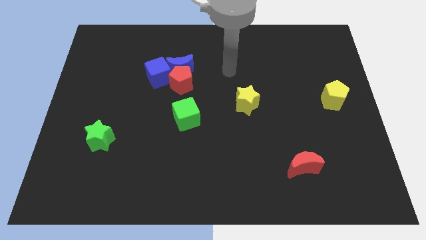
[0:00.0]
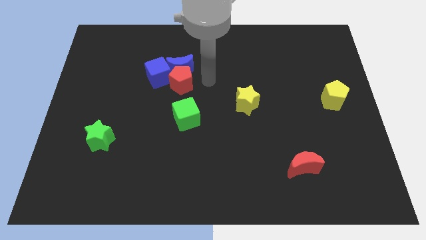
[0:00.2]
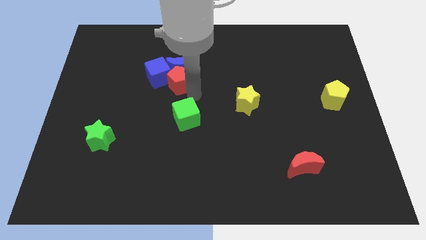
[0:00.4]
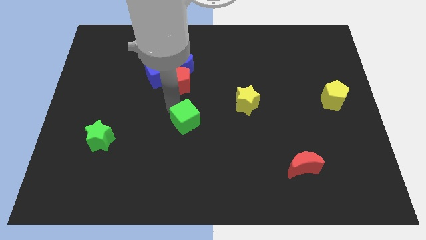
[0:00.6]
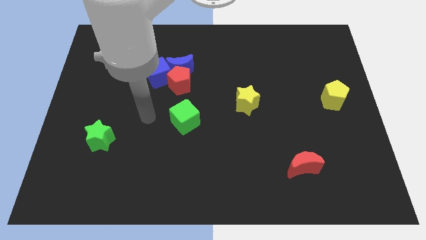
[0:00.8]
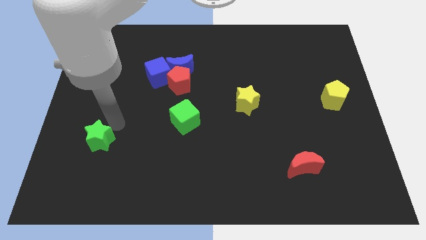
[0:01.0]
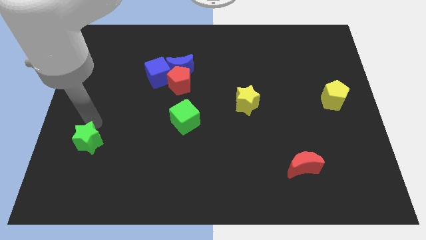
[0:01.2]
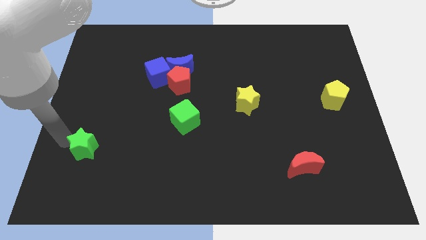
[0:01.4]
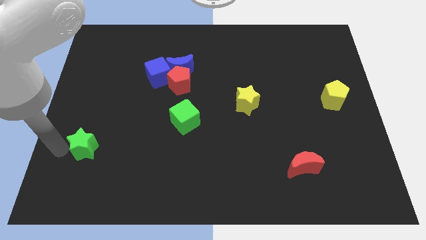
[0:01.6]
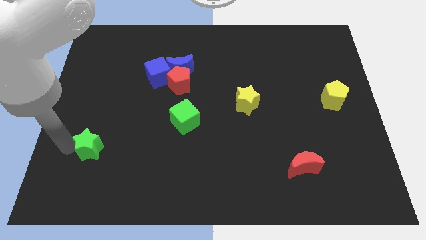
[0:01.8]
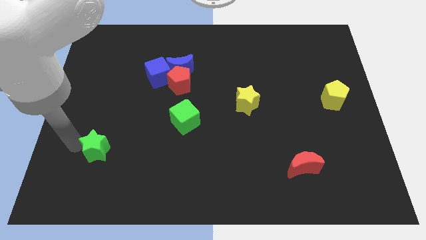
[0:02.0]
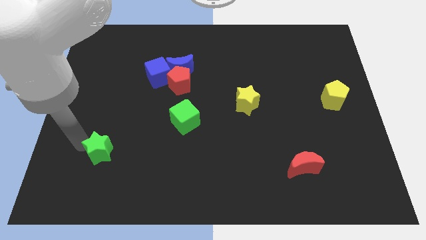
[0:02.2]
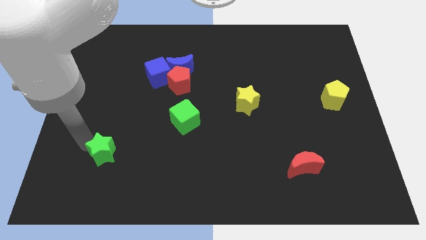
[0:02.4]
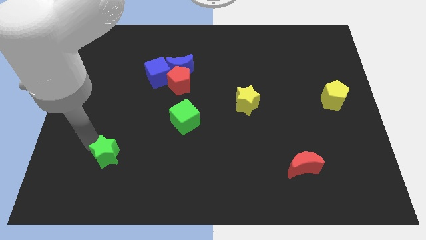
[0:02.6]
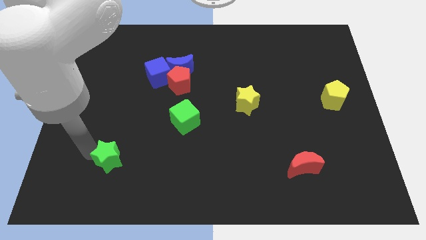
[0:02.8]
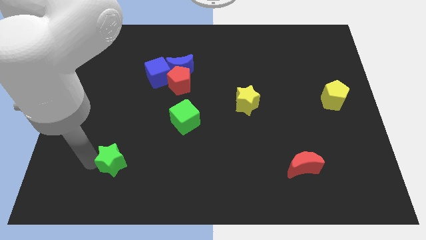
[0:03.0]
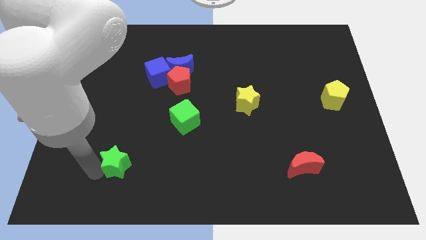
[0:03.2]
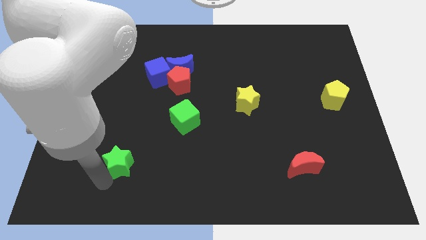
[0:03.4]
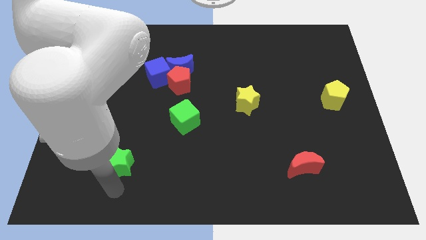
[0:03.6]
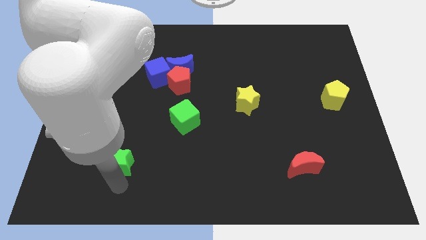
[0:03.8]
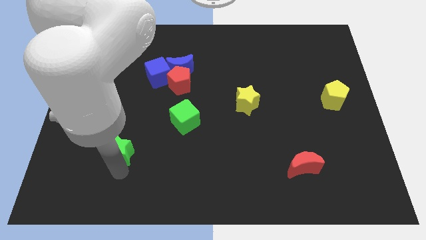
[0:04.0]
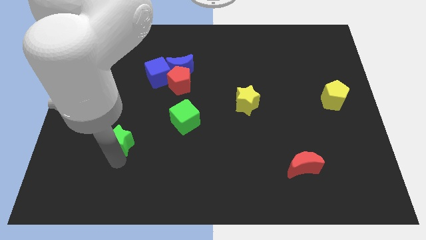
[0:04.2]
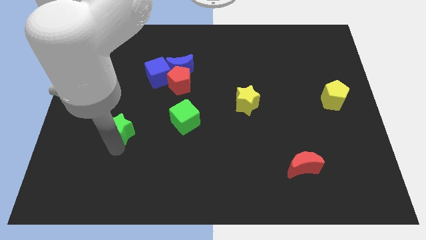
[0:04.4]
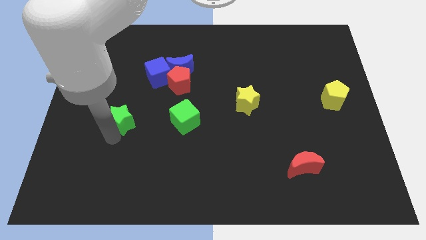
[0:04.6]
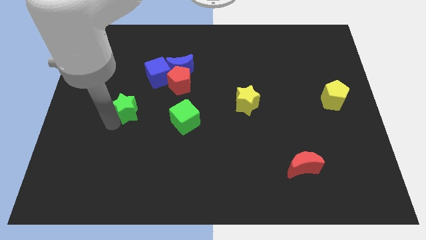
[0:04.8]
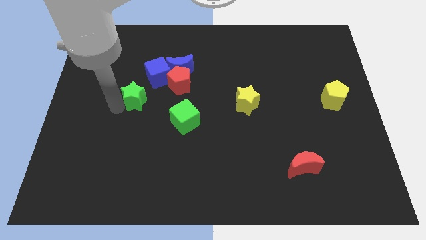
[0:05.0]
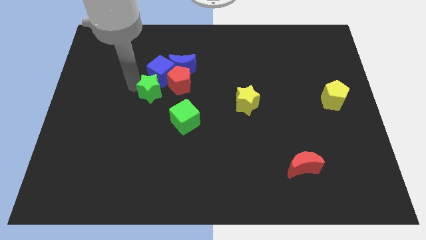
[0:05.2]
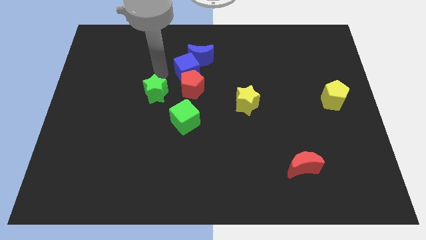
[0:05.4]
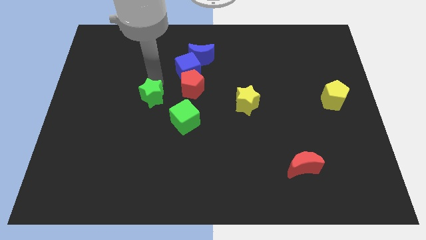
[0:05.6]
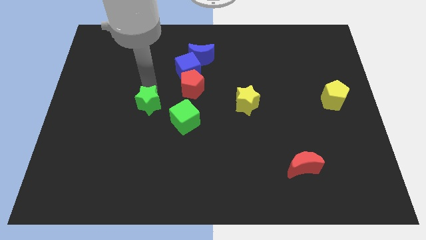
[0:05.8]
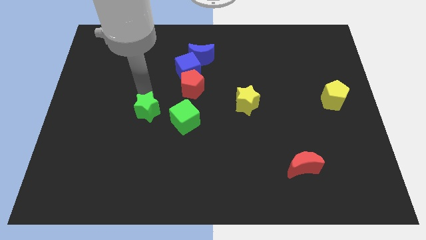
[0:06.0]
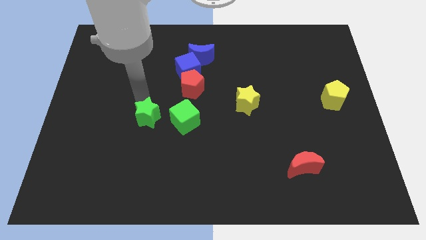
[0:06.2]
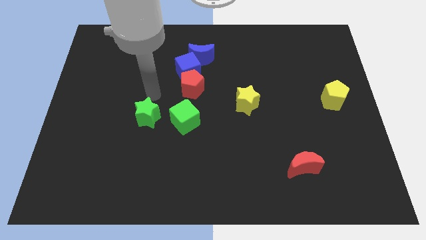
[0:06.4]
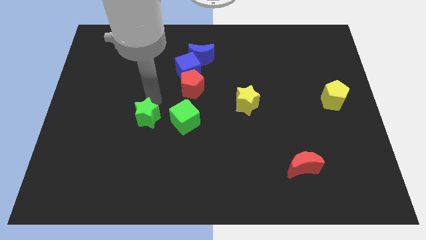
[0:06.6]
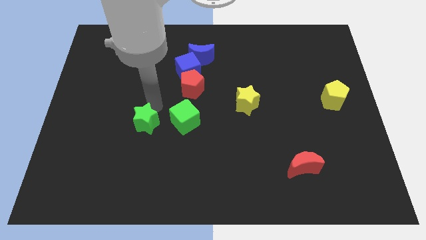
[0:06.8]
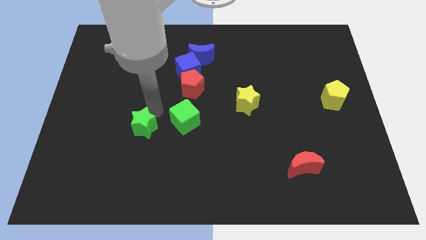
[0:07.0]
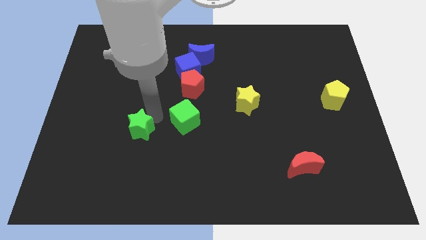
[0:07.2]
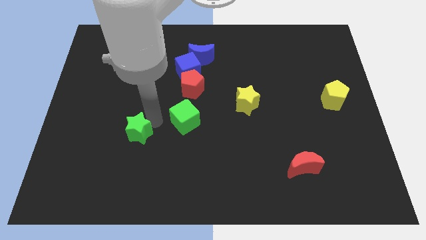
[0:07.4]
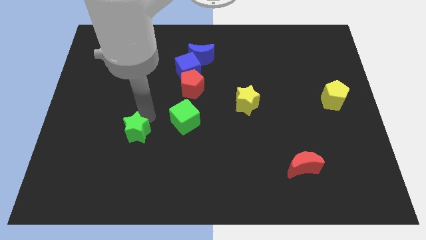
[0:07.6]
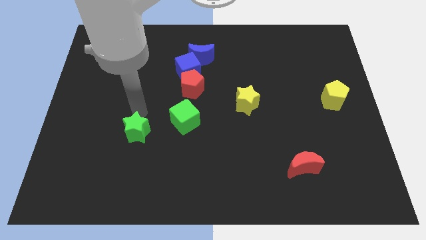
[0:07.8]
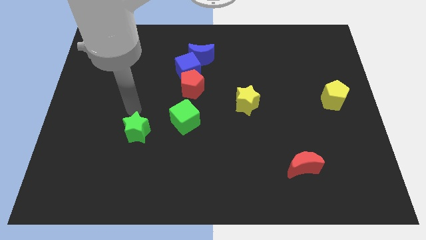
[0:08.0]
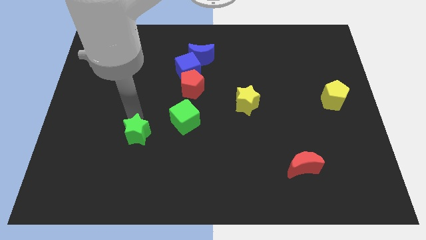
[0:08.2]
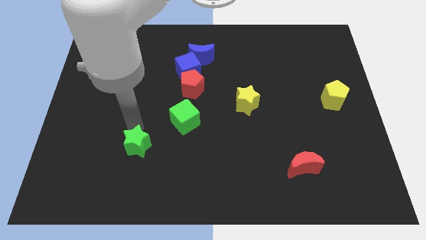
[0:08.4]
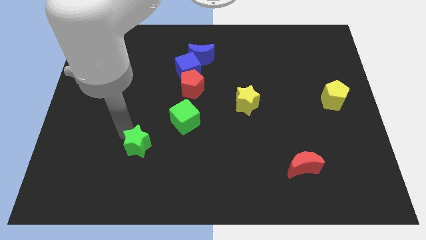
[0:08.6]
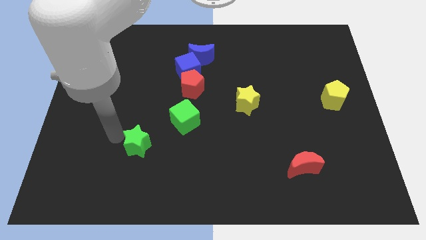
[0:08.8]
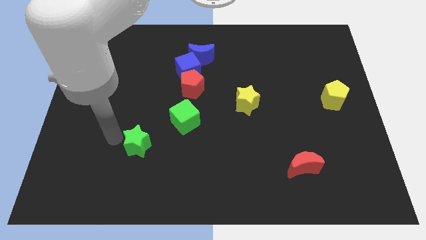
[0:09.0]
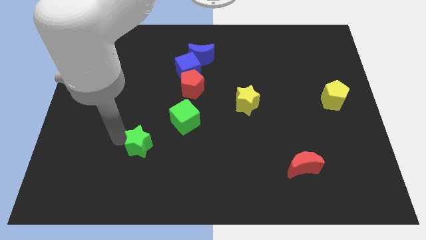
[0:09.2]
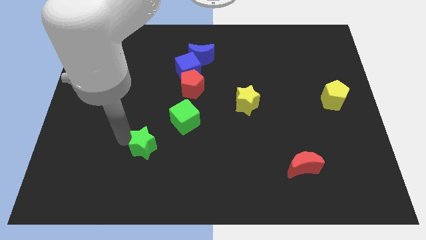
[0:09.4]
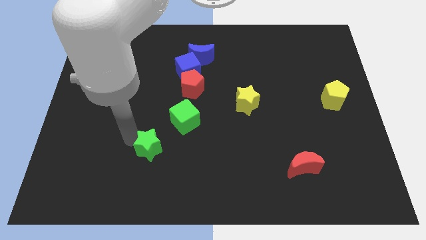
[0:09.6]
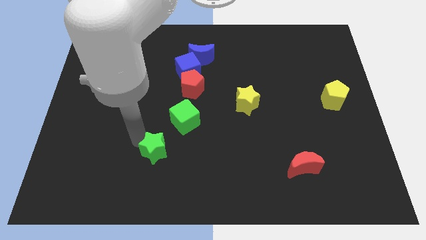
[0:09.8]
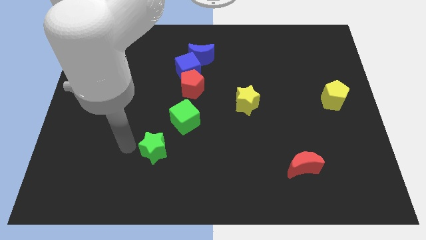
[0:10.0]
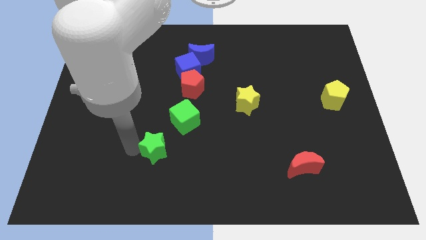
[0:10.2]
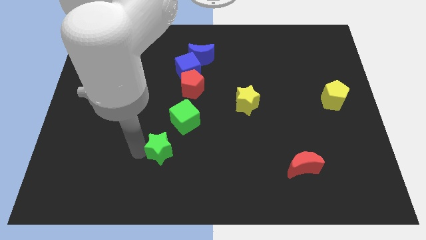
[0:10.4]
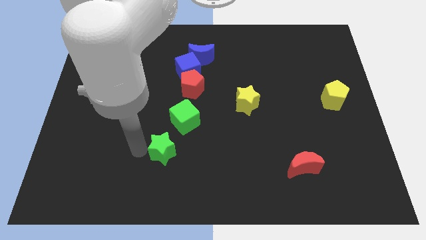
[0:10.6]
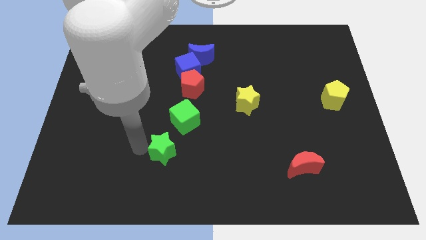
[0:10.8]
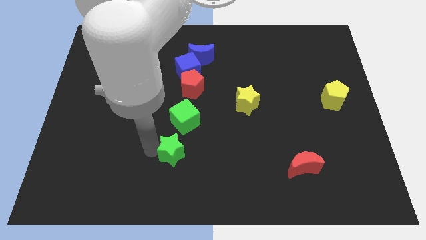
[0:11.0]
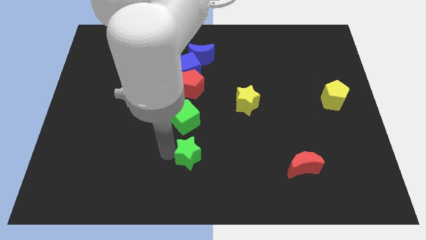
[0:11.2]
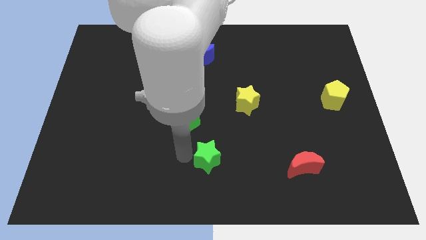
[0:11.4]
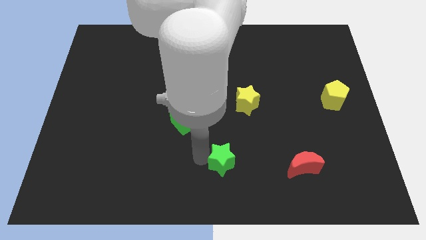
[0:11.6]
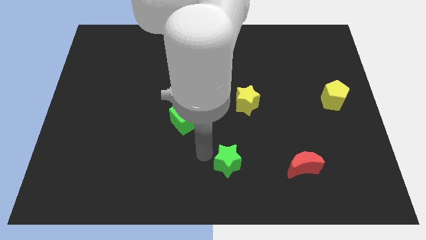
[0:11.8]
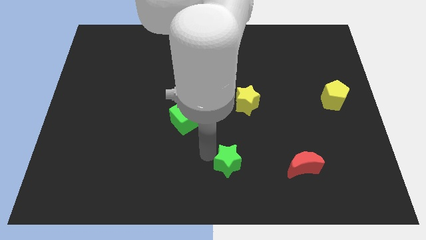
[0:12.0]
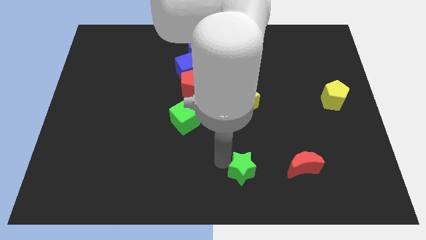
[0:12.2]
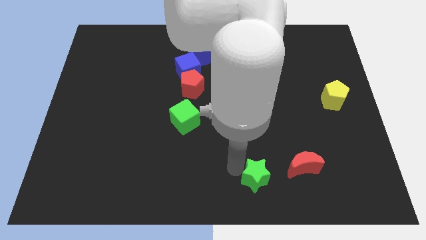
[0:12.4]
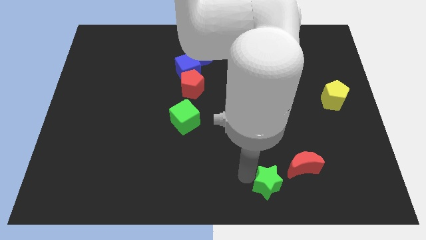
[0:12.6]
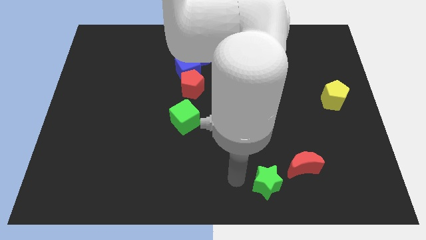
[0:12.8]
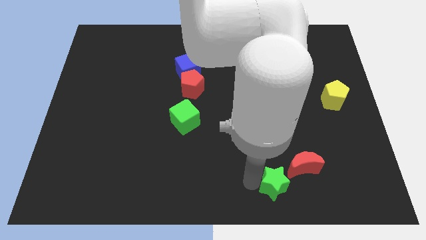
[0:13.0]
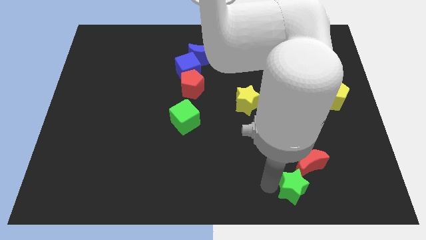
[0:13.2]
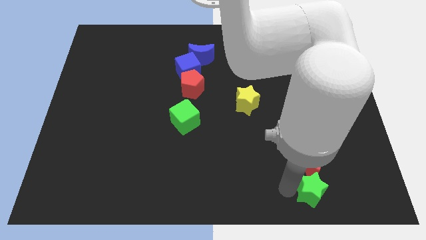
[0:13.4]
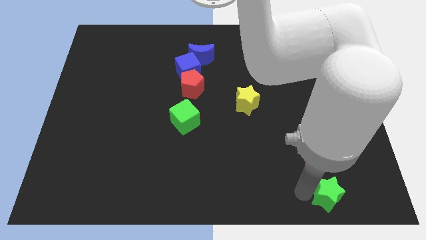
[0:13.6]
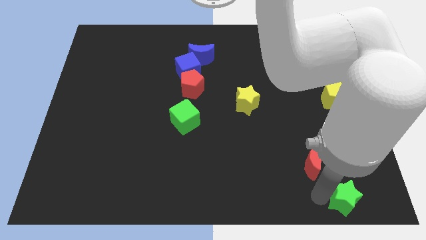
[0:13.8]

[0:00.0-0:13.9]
move the green star to the bottom right
